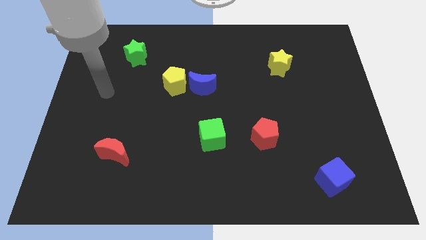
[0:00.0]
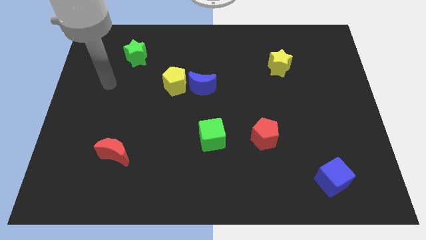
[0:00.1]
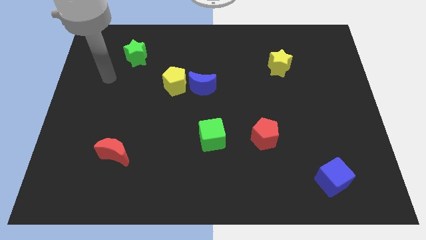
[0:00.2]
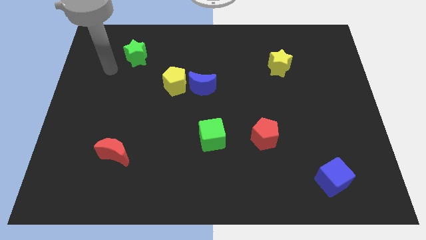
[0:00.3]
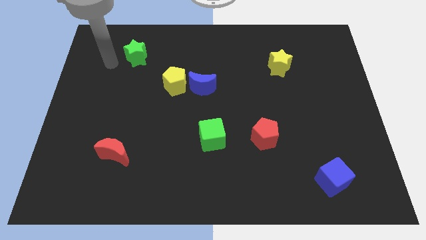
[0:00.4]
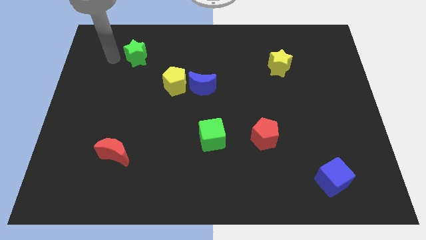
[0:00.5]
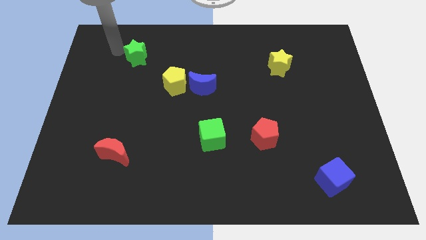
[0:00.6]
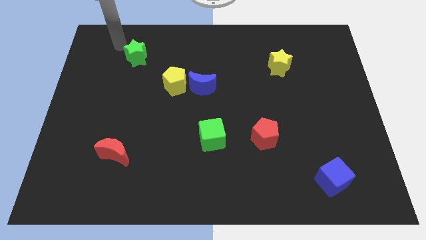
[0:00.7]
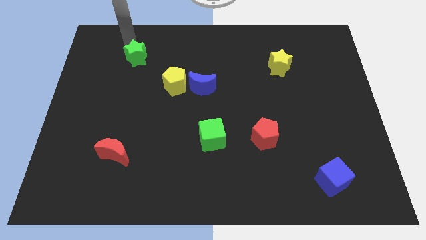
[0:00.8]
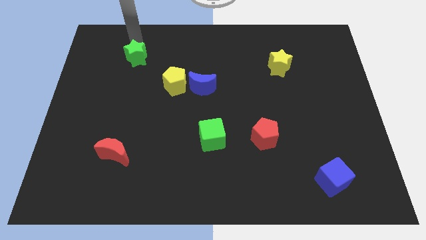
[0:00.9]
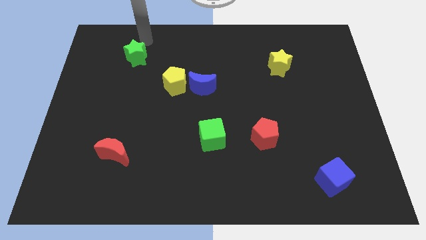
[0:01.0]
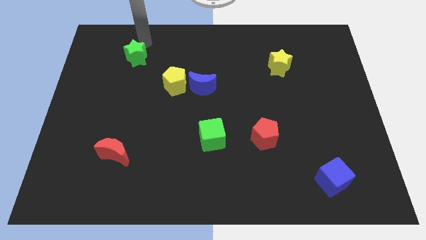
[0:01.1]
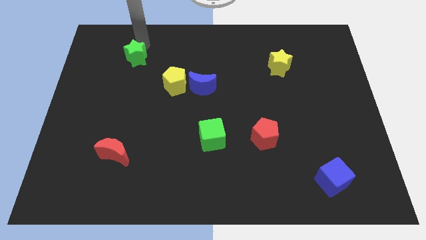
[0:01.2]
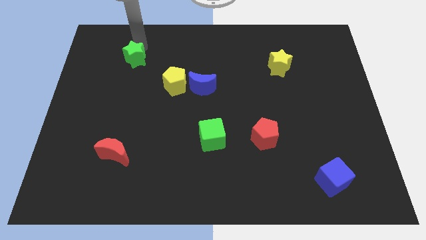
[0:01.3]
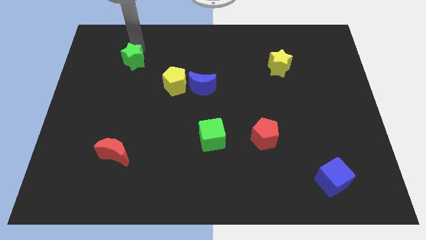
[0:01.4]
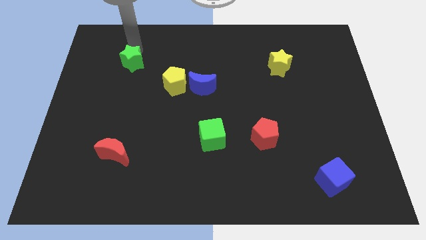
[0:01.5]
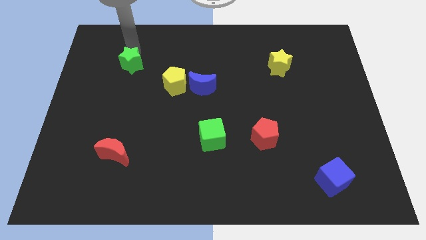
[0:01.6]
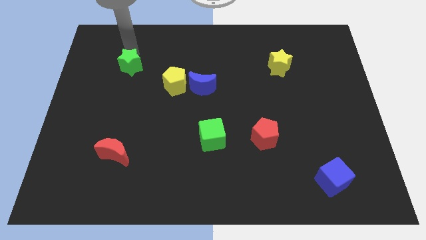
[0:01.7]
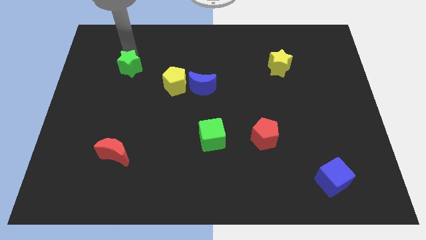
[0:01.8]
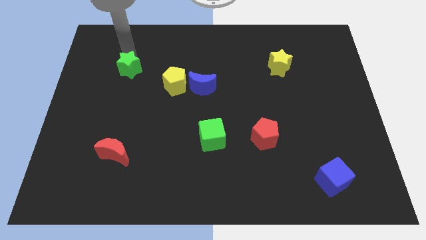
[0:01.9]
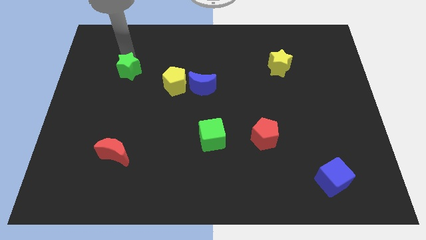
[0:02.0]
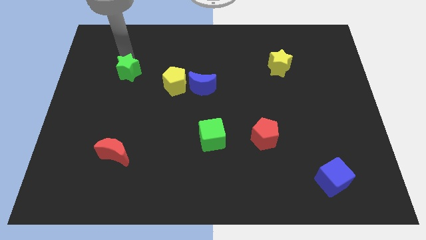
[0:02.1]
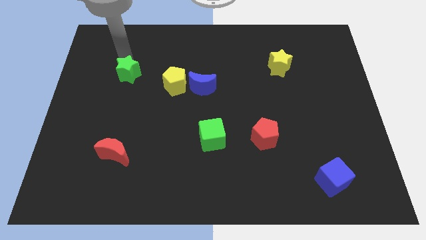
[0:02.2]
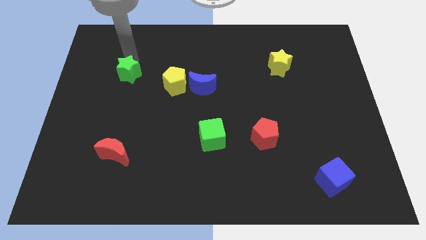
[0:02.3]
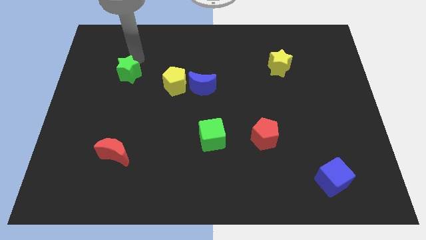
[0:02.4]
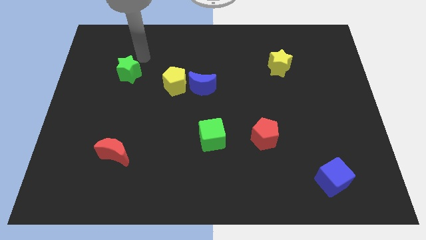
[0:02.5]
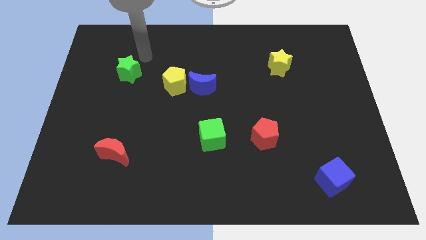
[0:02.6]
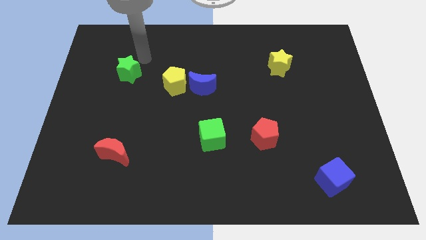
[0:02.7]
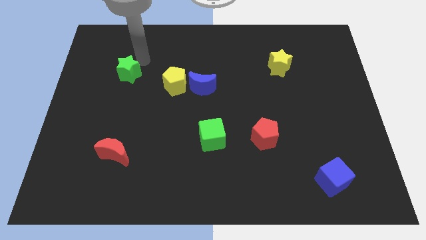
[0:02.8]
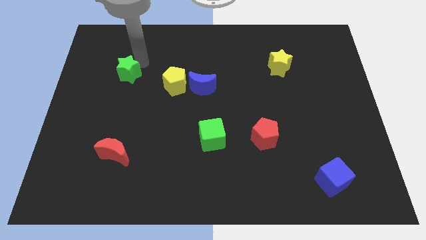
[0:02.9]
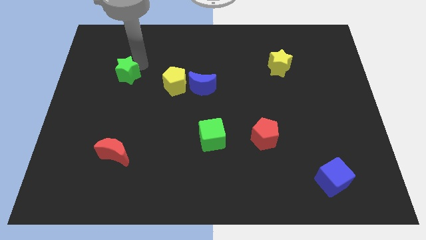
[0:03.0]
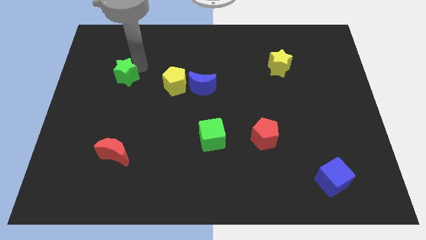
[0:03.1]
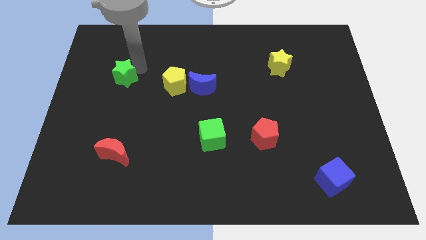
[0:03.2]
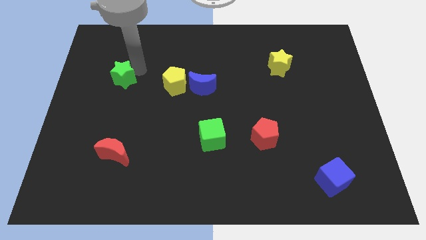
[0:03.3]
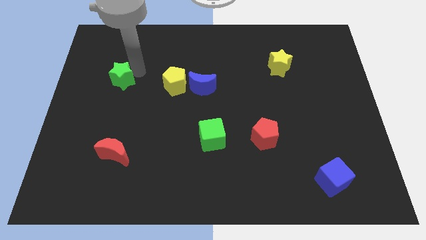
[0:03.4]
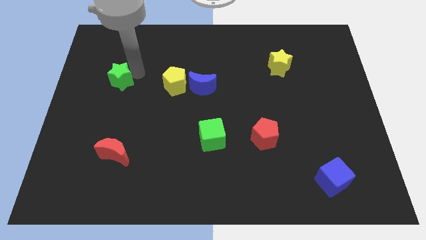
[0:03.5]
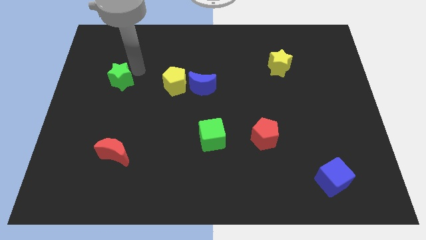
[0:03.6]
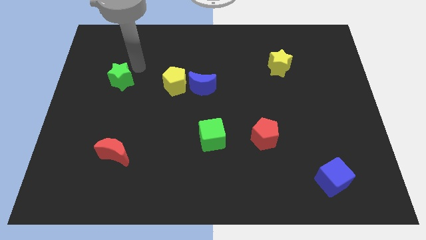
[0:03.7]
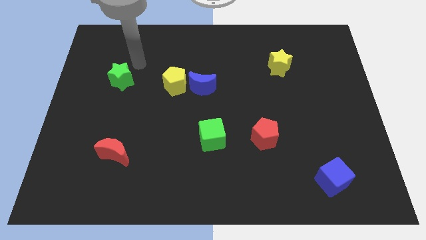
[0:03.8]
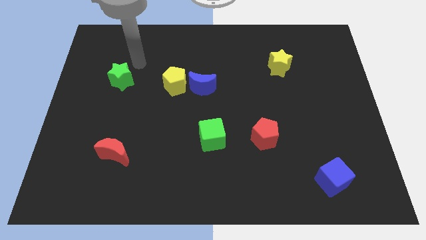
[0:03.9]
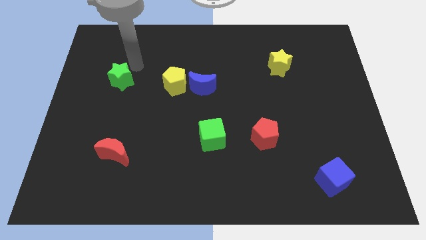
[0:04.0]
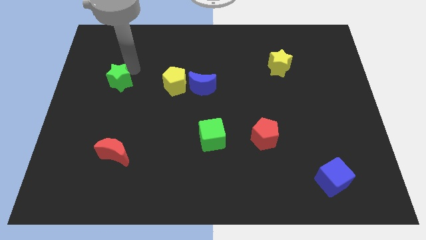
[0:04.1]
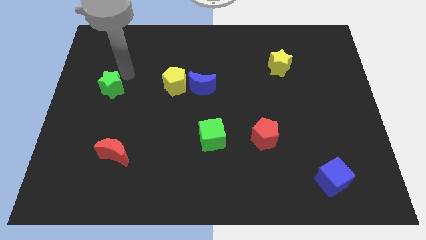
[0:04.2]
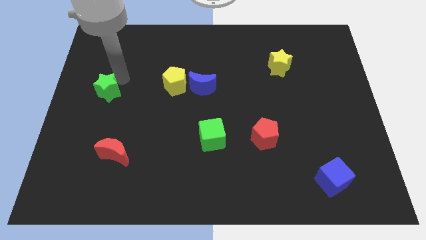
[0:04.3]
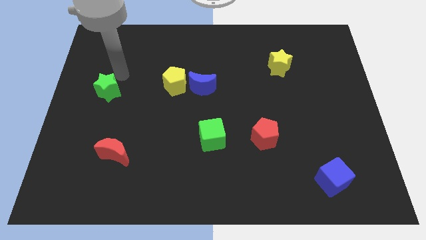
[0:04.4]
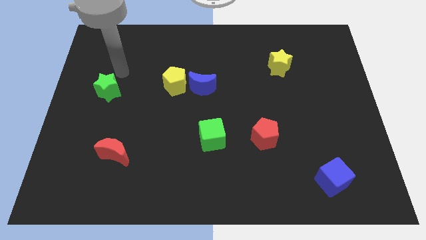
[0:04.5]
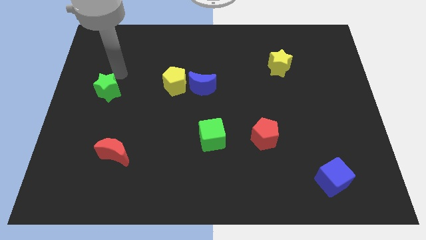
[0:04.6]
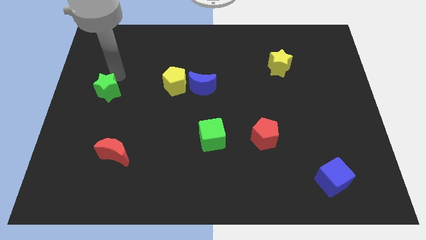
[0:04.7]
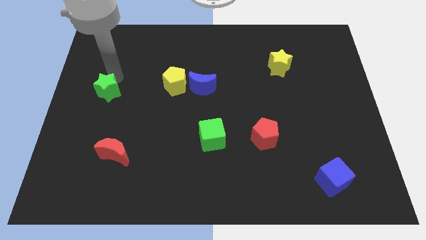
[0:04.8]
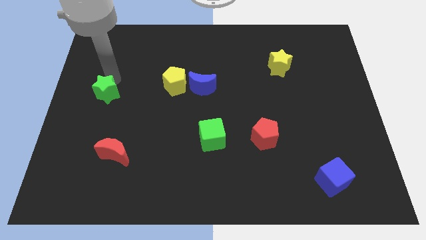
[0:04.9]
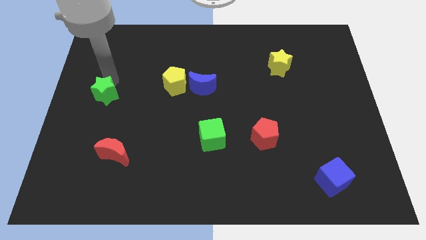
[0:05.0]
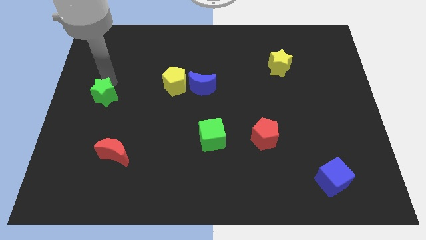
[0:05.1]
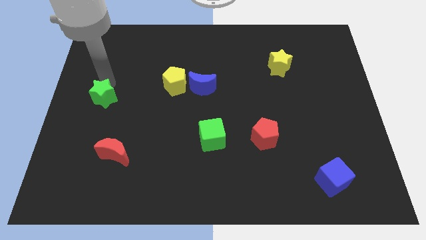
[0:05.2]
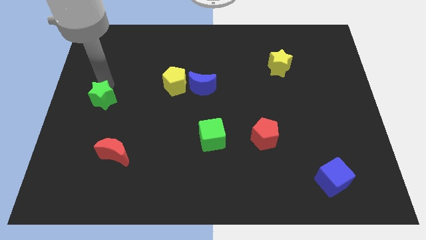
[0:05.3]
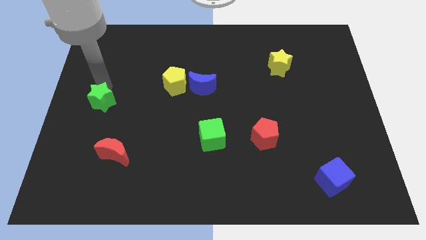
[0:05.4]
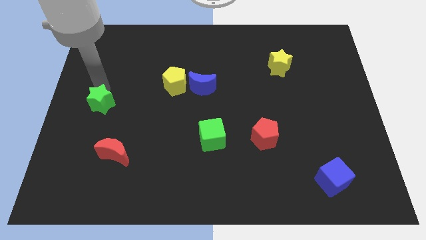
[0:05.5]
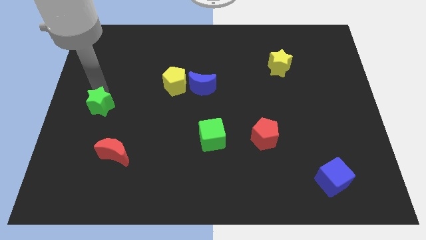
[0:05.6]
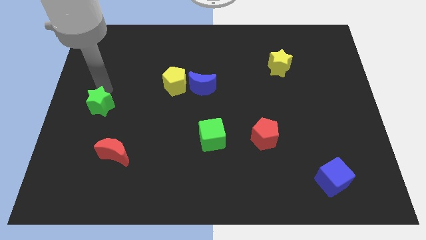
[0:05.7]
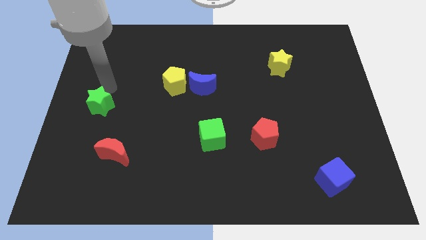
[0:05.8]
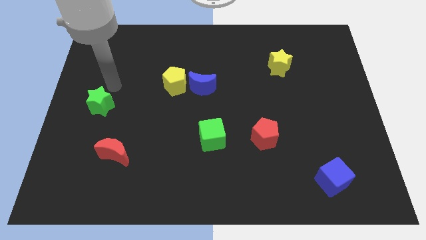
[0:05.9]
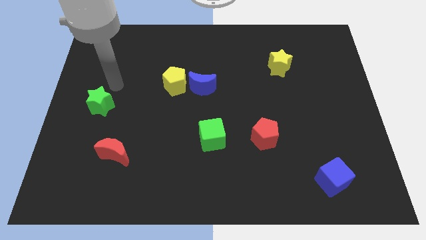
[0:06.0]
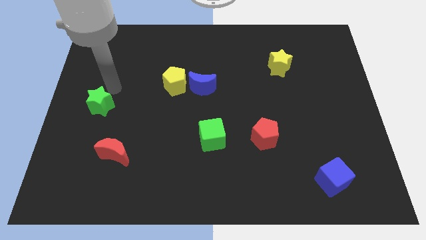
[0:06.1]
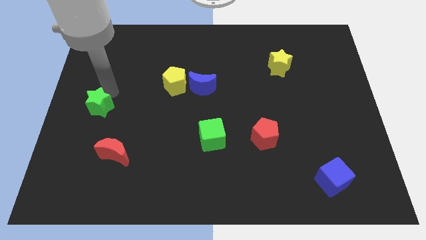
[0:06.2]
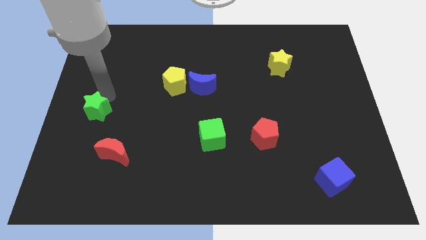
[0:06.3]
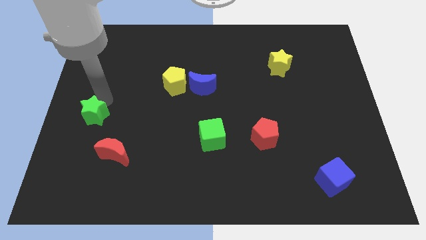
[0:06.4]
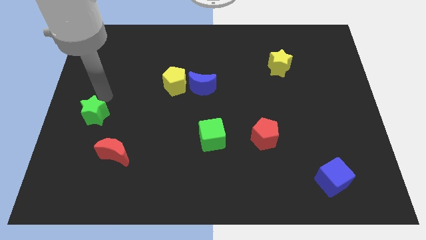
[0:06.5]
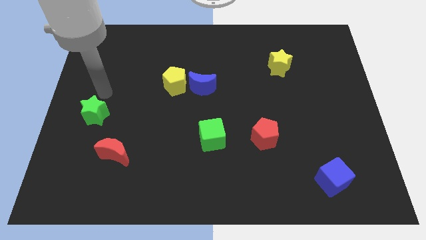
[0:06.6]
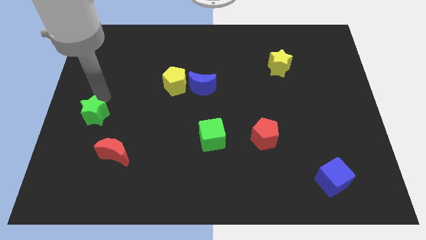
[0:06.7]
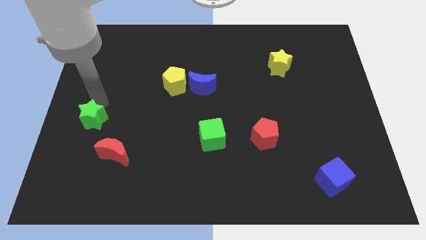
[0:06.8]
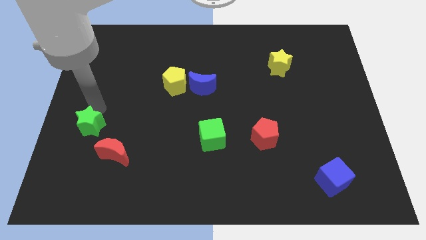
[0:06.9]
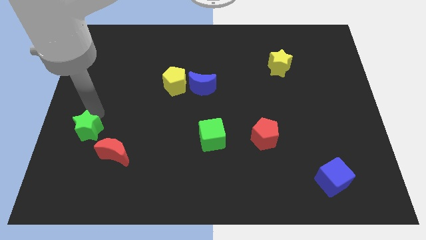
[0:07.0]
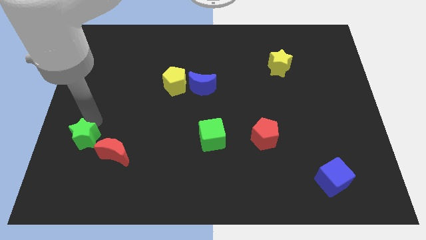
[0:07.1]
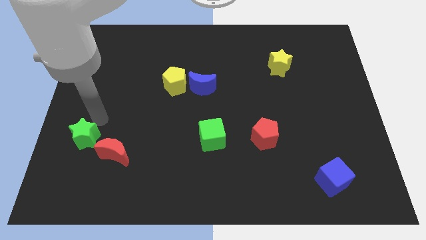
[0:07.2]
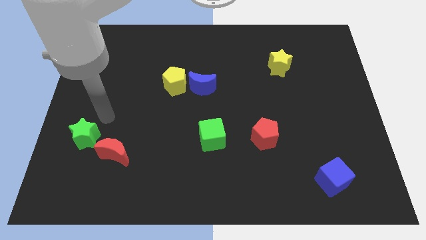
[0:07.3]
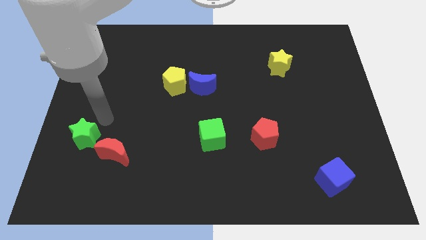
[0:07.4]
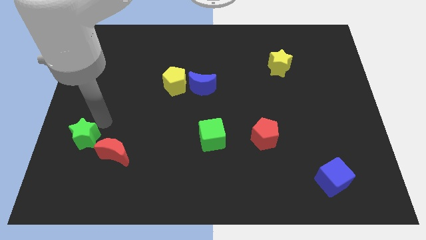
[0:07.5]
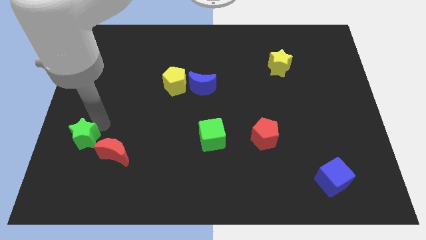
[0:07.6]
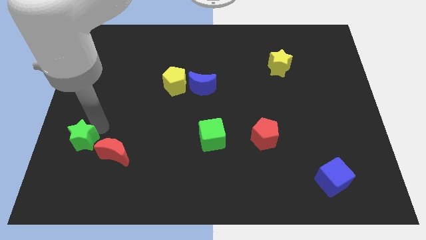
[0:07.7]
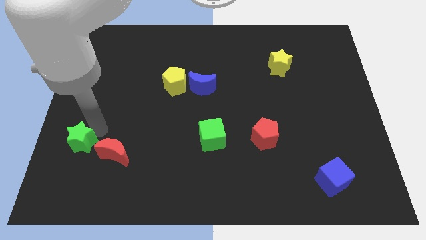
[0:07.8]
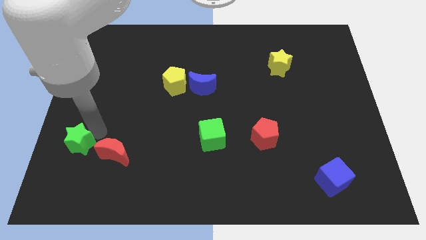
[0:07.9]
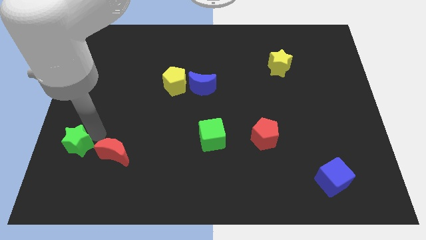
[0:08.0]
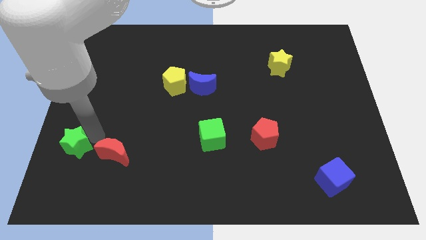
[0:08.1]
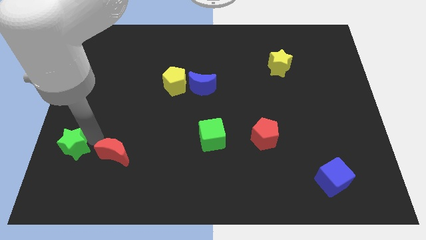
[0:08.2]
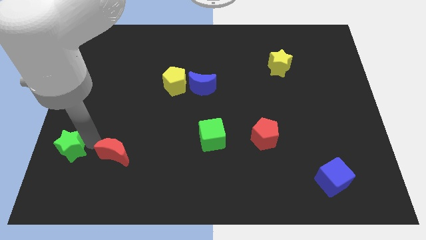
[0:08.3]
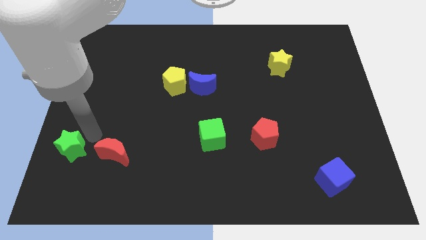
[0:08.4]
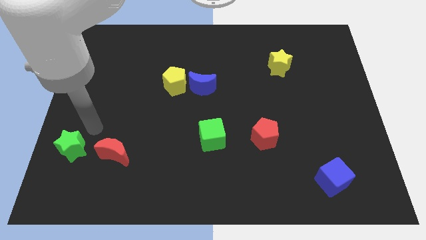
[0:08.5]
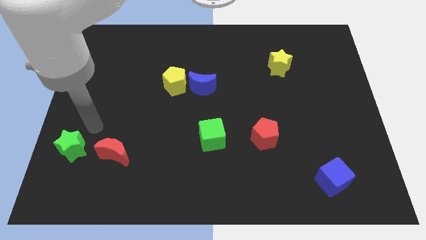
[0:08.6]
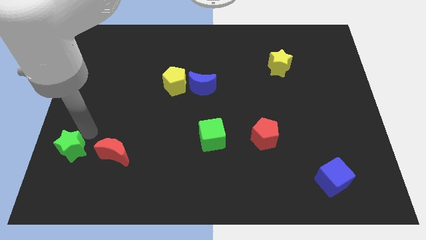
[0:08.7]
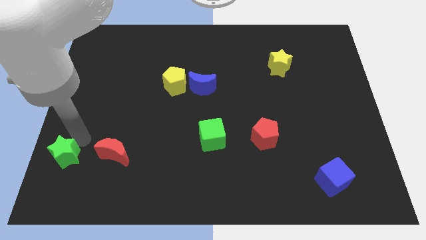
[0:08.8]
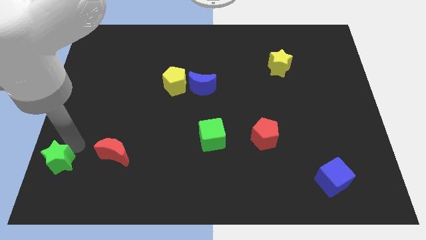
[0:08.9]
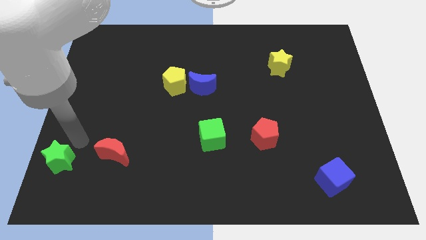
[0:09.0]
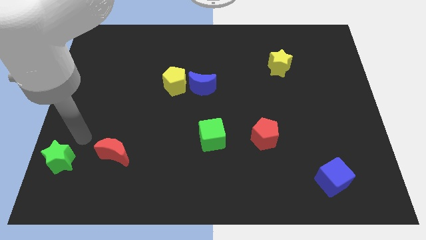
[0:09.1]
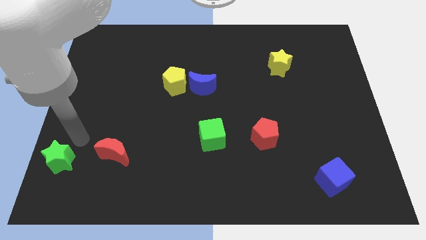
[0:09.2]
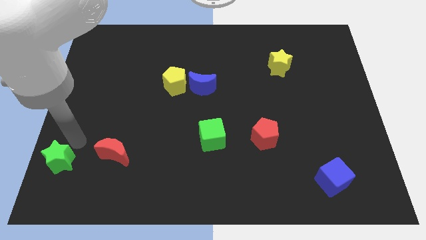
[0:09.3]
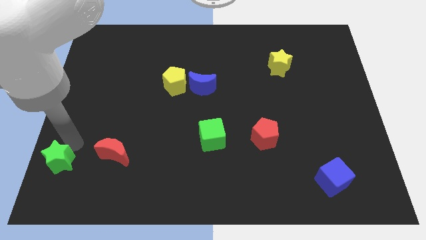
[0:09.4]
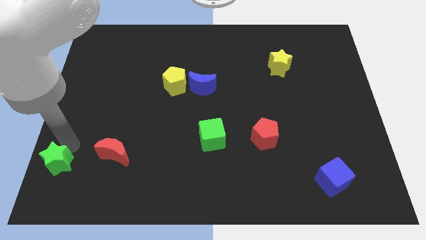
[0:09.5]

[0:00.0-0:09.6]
move the green star to the bottom left corner
